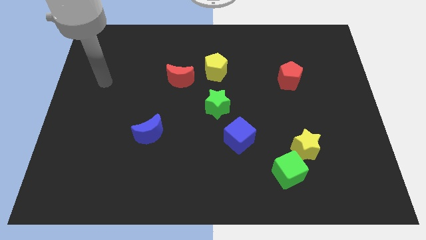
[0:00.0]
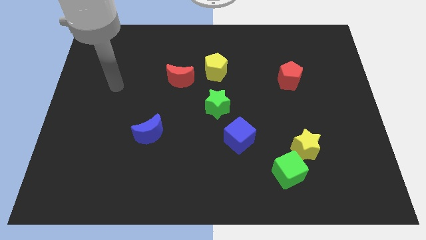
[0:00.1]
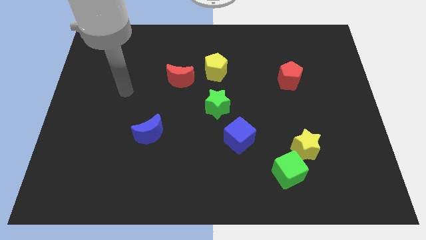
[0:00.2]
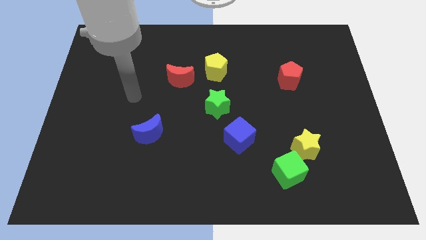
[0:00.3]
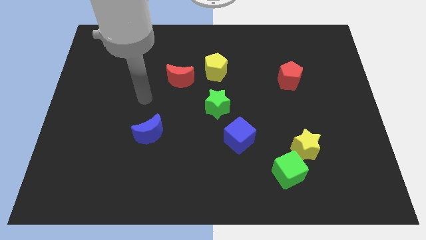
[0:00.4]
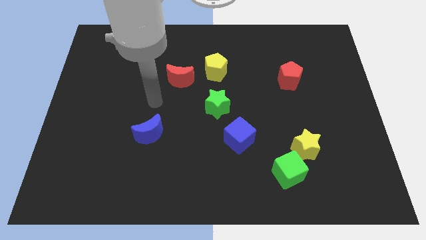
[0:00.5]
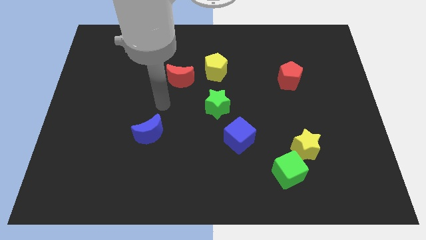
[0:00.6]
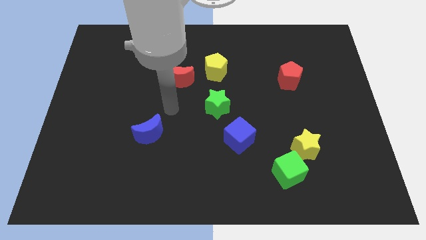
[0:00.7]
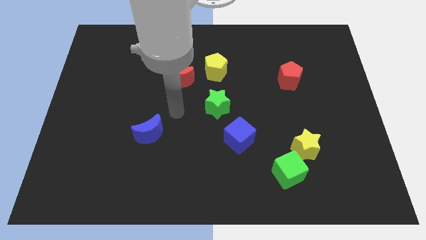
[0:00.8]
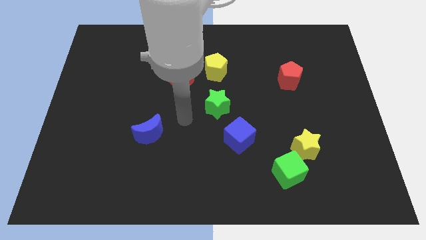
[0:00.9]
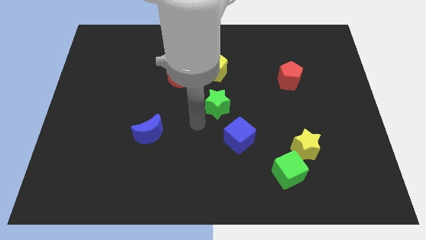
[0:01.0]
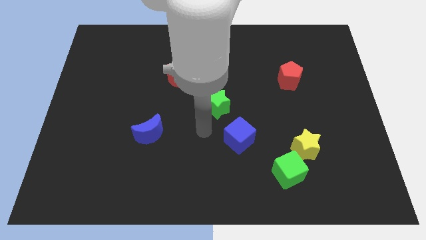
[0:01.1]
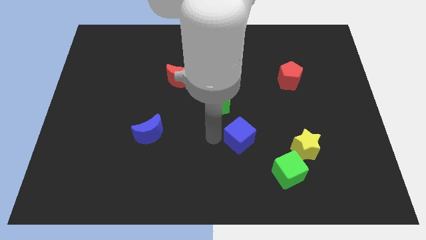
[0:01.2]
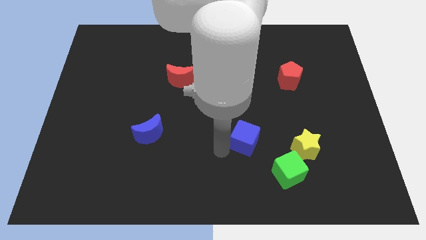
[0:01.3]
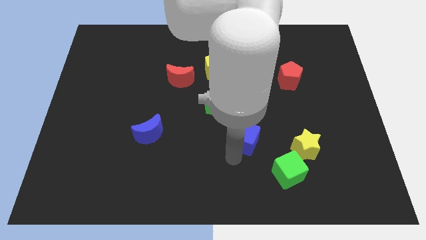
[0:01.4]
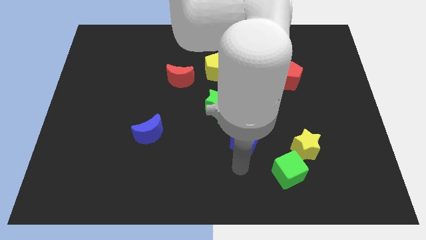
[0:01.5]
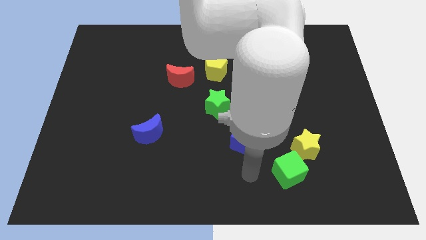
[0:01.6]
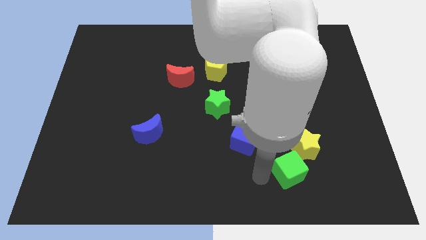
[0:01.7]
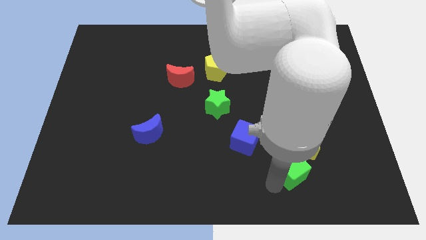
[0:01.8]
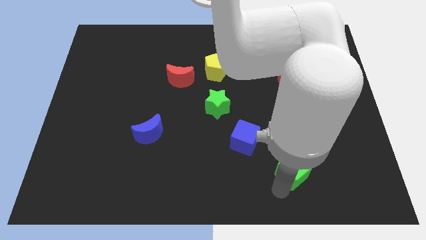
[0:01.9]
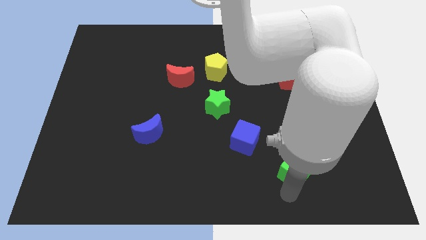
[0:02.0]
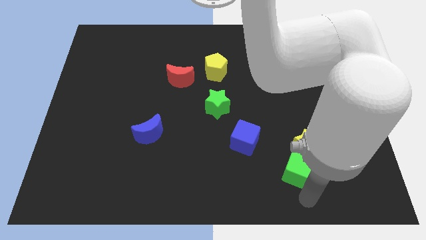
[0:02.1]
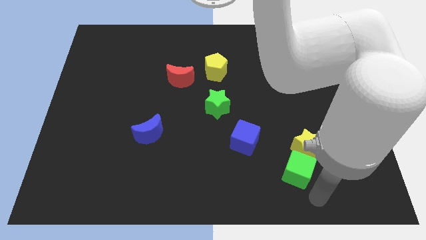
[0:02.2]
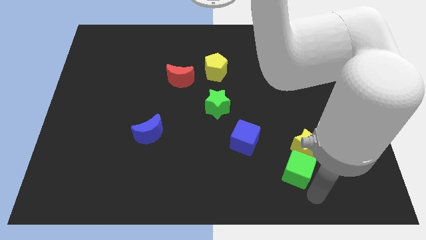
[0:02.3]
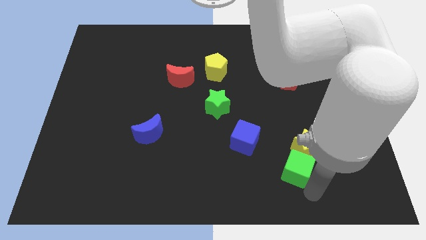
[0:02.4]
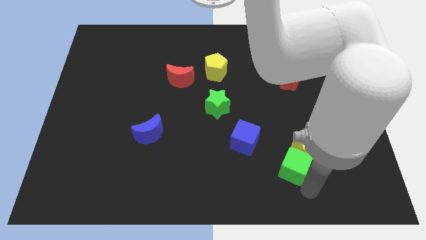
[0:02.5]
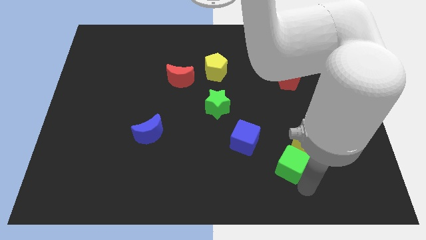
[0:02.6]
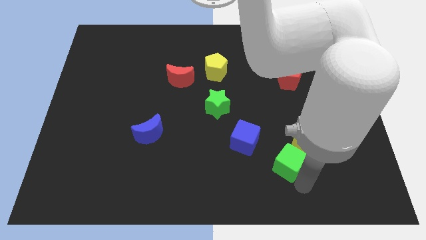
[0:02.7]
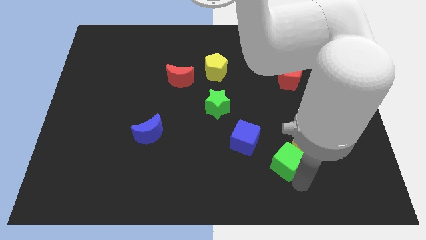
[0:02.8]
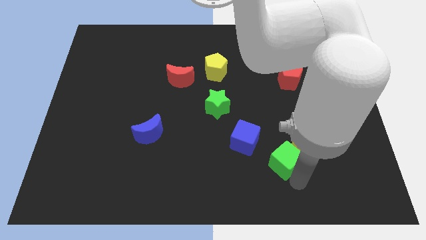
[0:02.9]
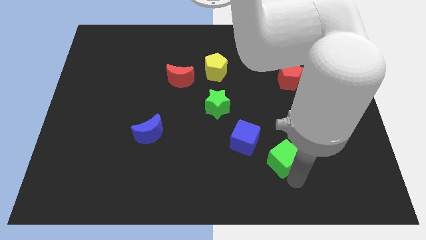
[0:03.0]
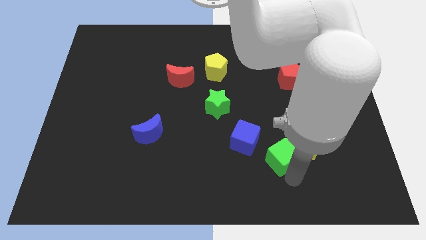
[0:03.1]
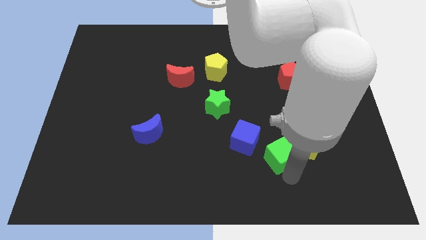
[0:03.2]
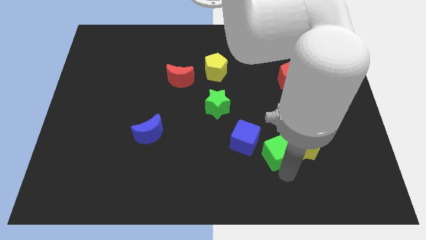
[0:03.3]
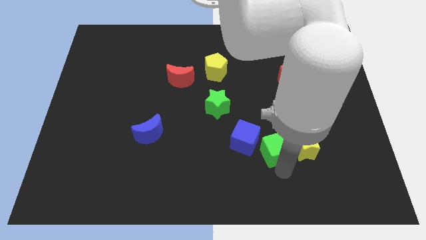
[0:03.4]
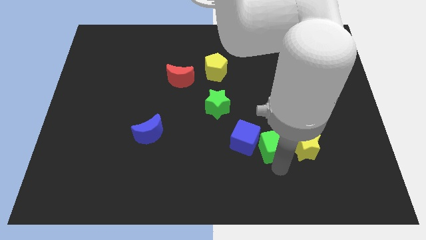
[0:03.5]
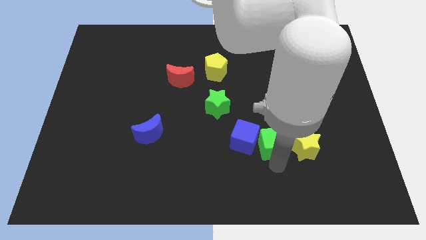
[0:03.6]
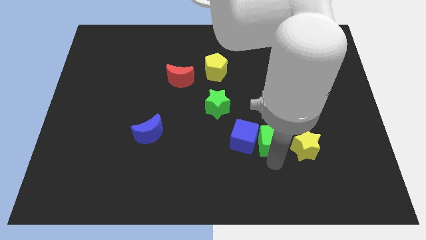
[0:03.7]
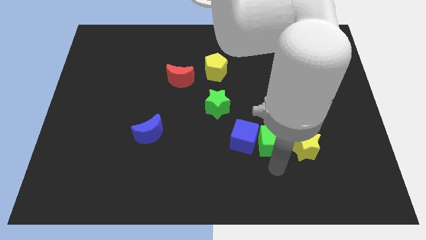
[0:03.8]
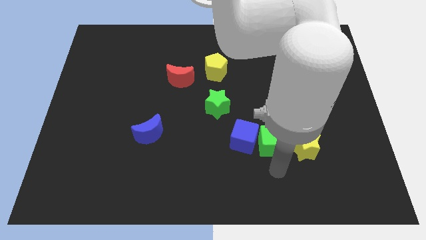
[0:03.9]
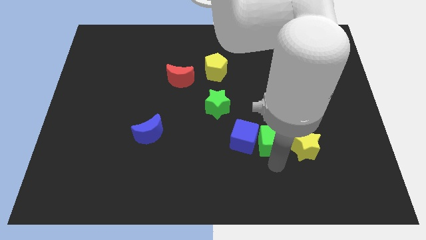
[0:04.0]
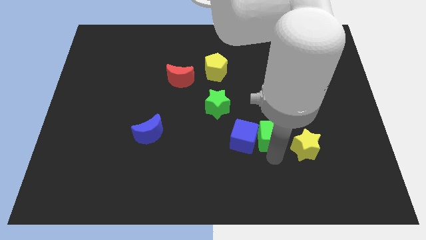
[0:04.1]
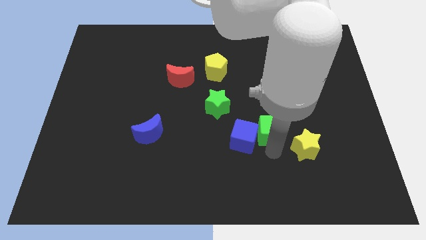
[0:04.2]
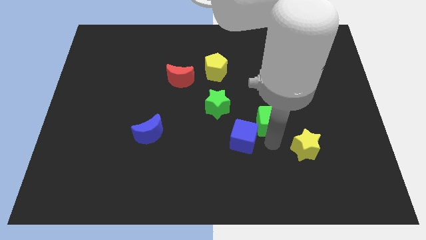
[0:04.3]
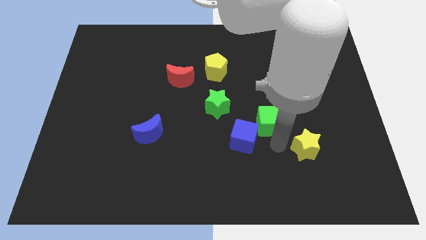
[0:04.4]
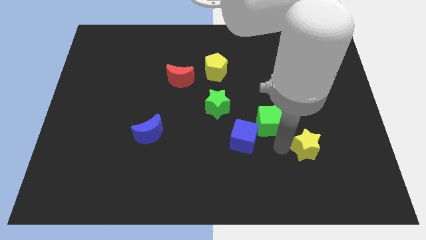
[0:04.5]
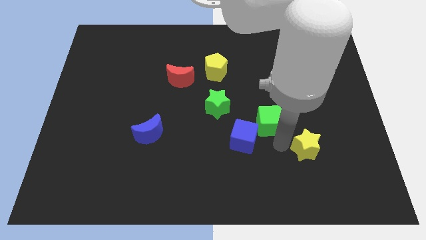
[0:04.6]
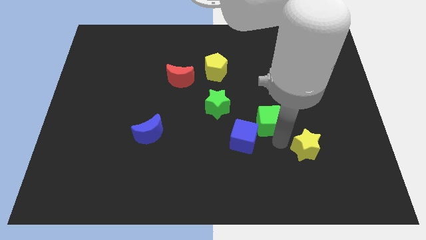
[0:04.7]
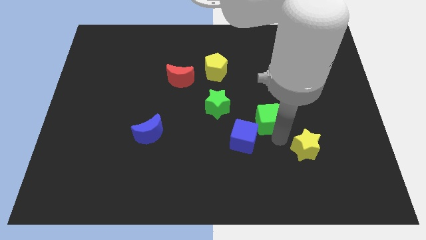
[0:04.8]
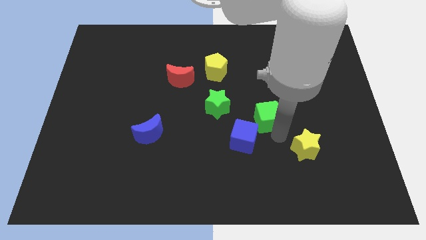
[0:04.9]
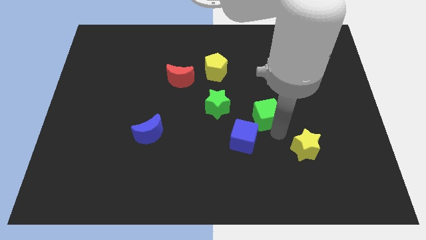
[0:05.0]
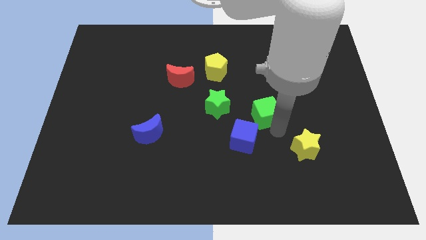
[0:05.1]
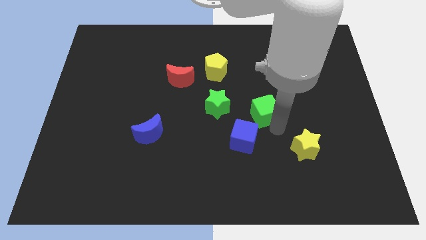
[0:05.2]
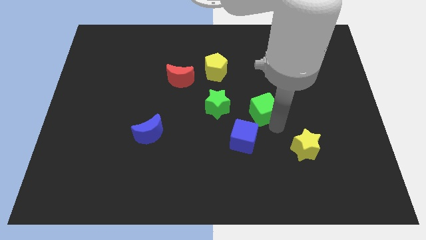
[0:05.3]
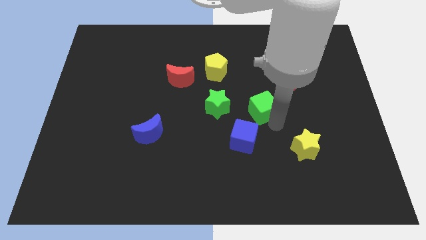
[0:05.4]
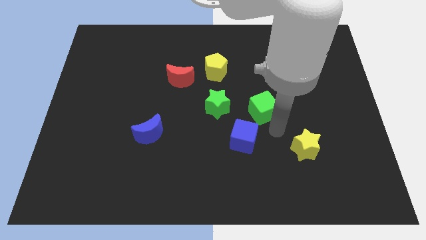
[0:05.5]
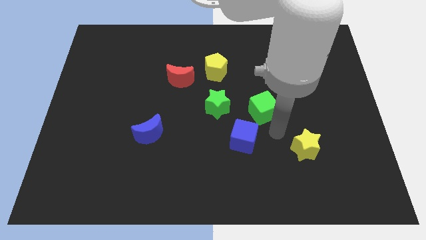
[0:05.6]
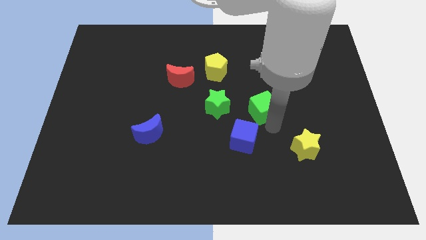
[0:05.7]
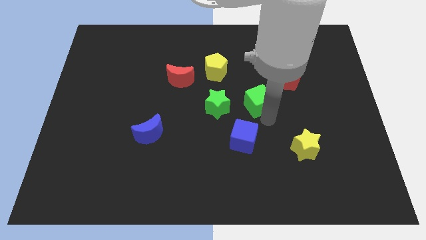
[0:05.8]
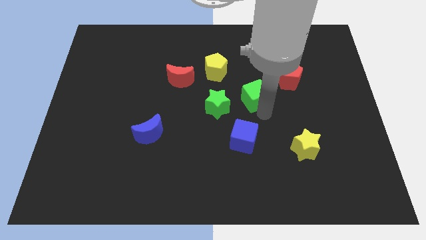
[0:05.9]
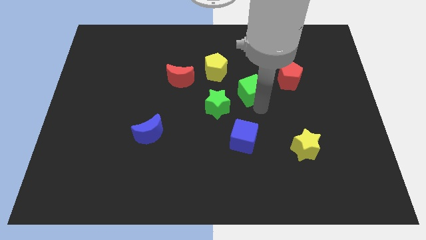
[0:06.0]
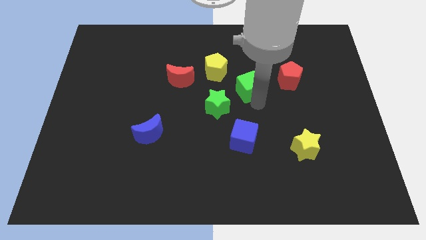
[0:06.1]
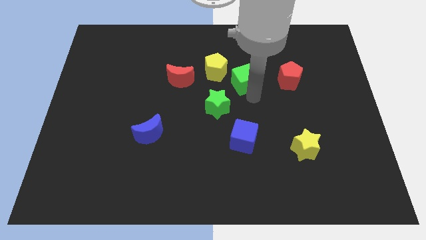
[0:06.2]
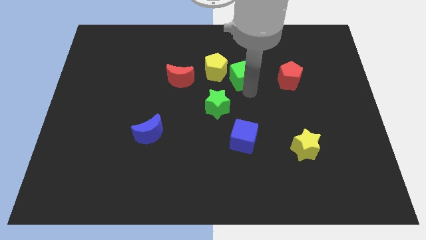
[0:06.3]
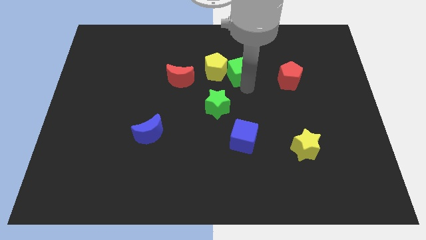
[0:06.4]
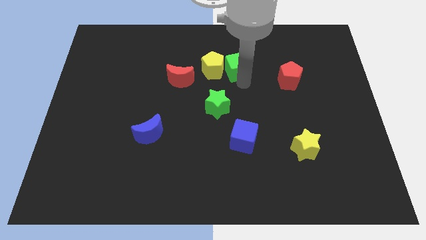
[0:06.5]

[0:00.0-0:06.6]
move the green cube to the top right side of the yellow pentagon

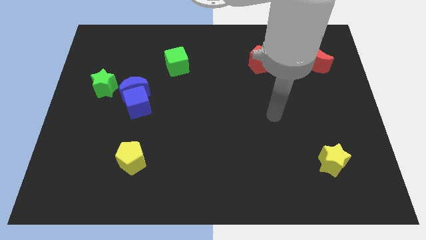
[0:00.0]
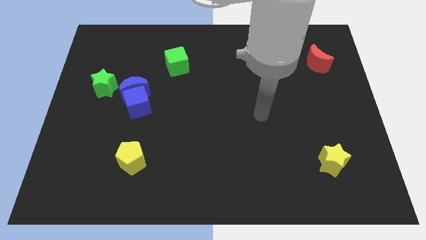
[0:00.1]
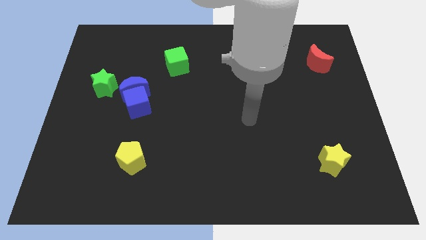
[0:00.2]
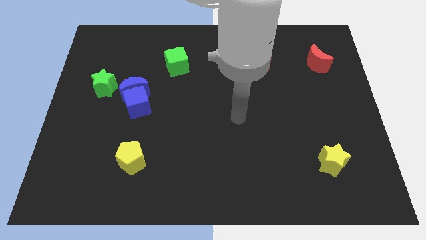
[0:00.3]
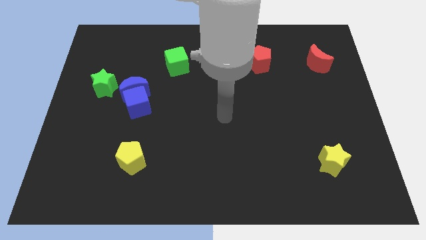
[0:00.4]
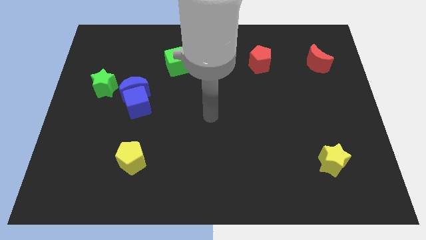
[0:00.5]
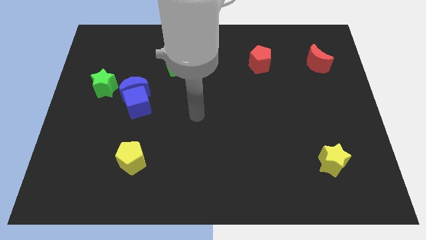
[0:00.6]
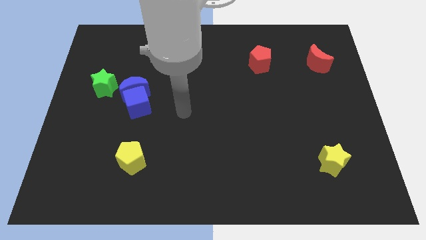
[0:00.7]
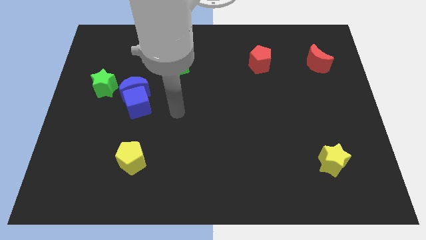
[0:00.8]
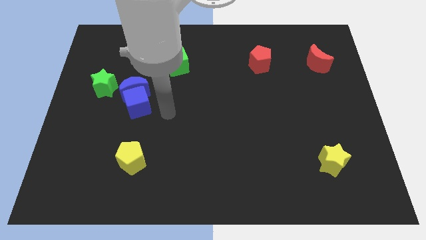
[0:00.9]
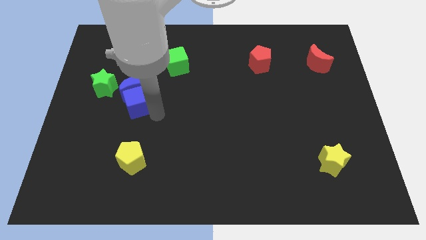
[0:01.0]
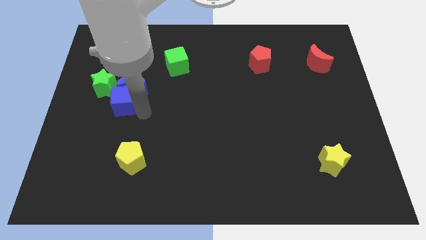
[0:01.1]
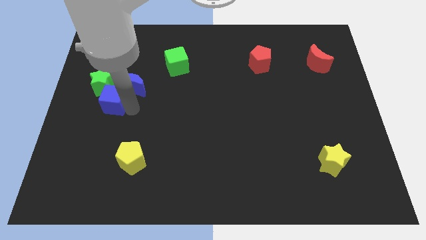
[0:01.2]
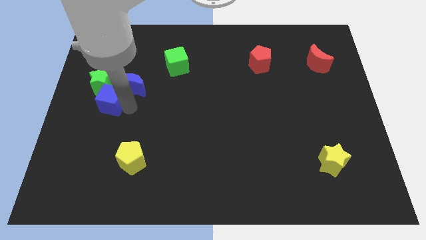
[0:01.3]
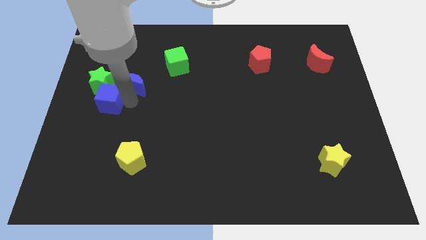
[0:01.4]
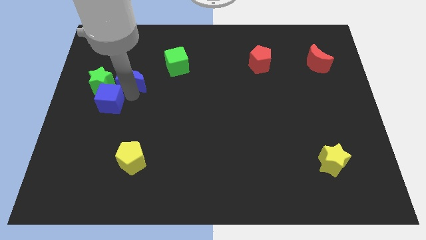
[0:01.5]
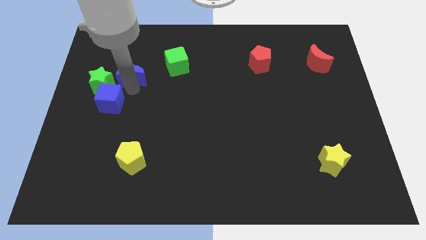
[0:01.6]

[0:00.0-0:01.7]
push the blue moon just left of the green cube
